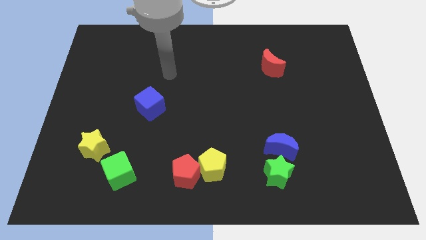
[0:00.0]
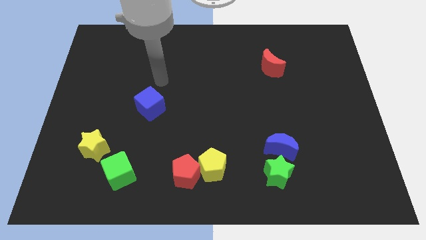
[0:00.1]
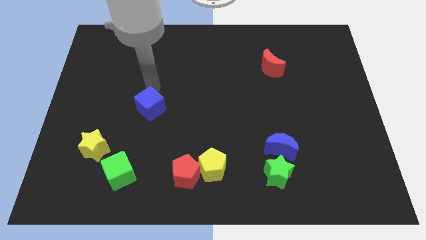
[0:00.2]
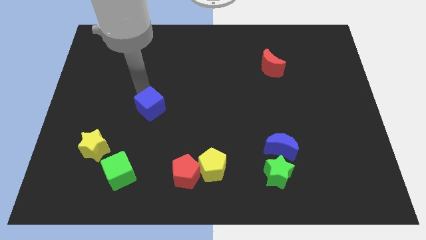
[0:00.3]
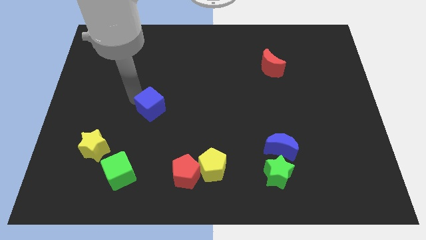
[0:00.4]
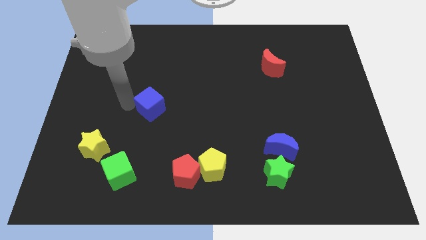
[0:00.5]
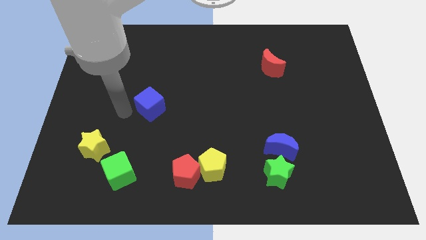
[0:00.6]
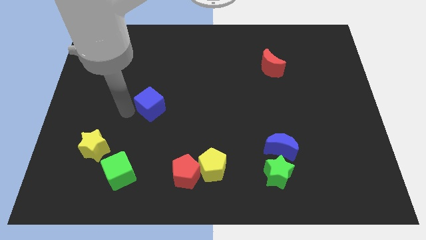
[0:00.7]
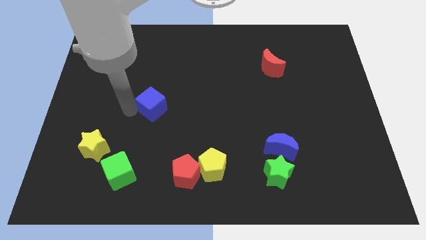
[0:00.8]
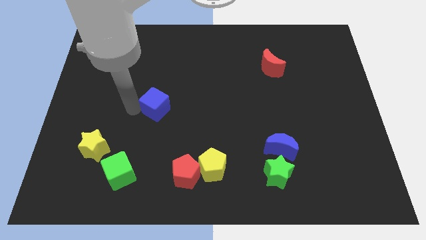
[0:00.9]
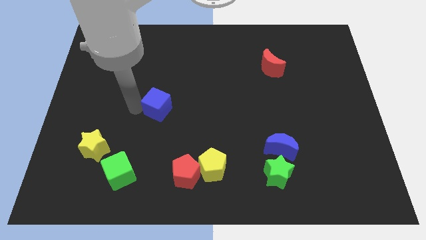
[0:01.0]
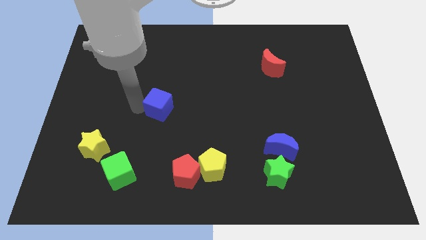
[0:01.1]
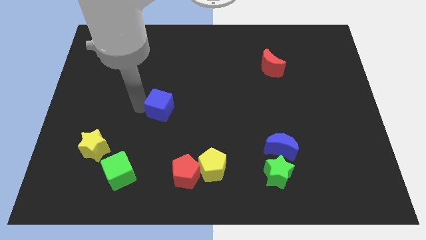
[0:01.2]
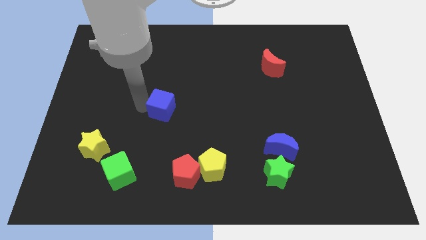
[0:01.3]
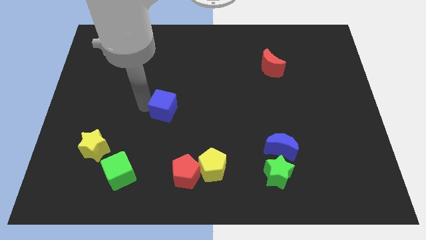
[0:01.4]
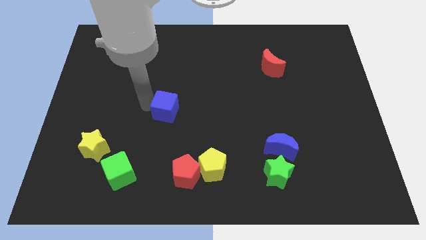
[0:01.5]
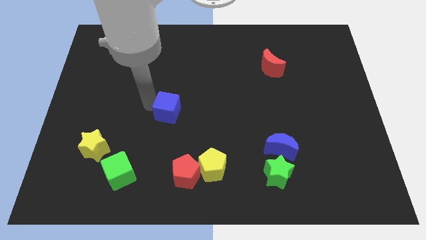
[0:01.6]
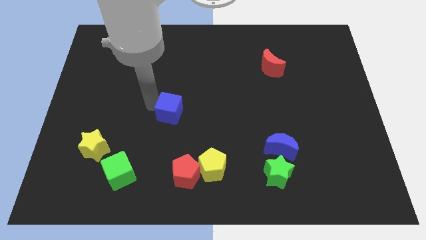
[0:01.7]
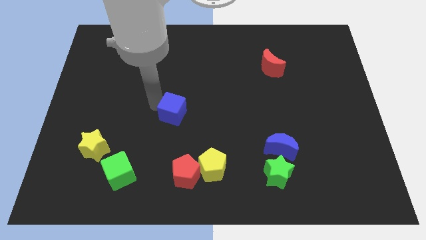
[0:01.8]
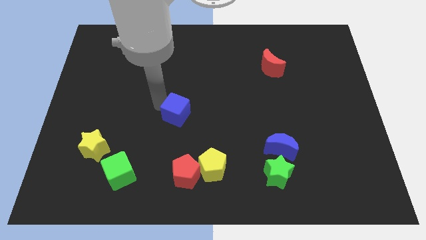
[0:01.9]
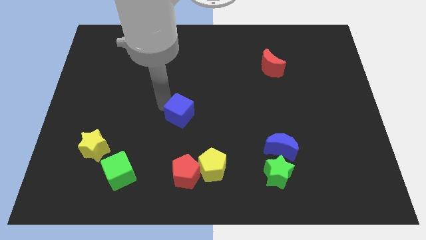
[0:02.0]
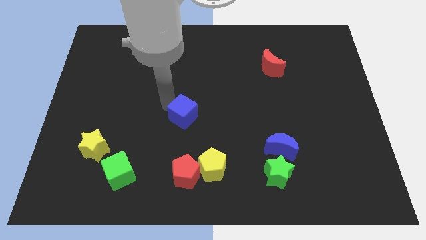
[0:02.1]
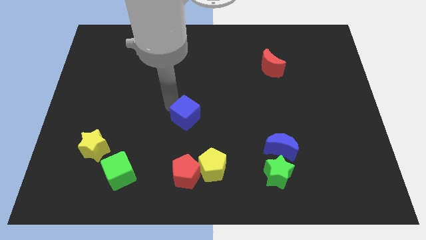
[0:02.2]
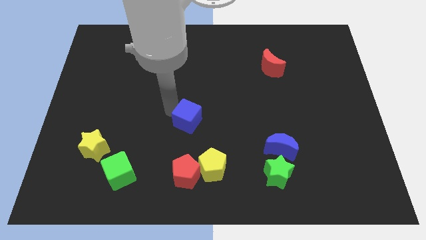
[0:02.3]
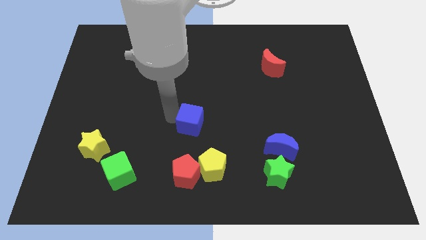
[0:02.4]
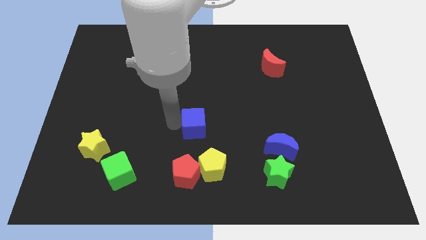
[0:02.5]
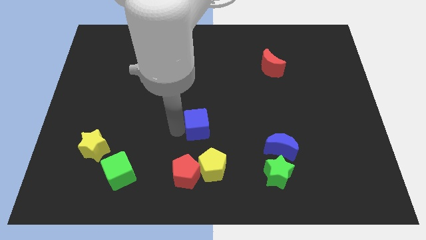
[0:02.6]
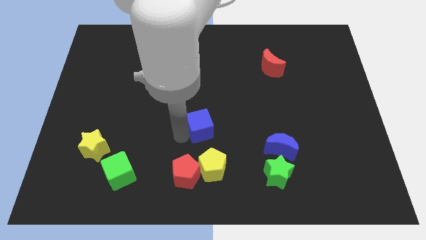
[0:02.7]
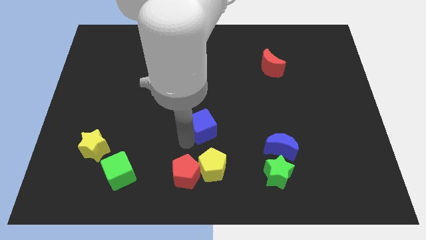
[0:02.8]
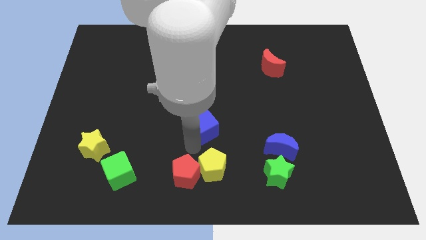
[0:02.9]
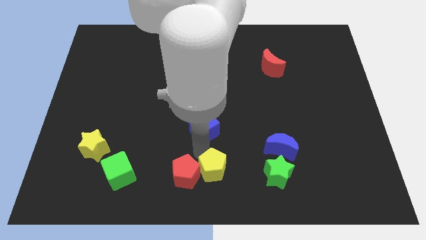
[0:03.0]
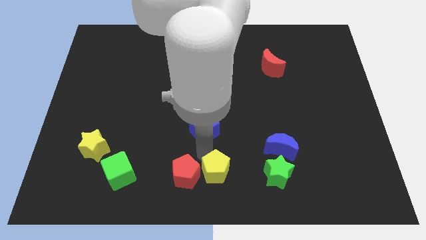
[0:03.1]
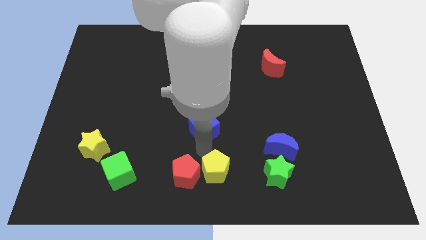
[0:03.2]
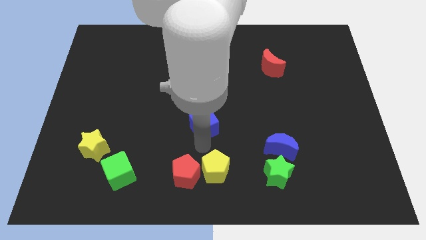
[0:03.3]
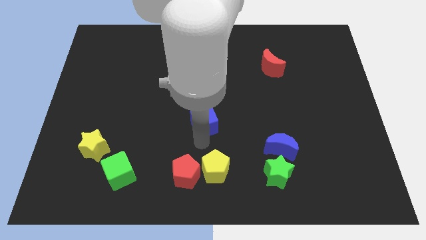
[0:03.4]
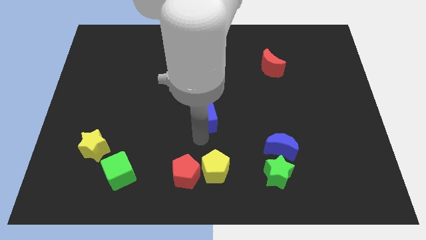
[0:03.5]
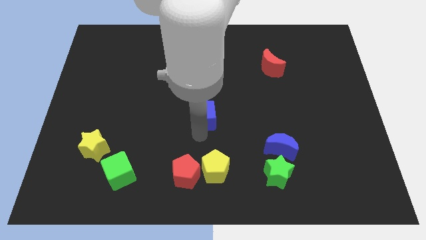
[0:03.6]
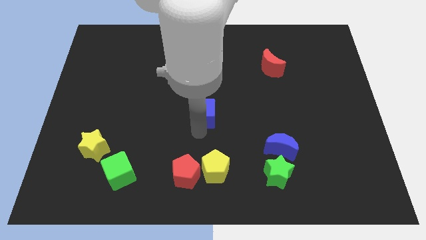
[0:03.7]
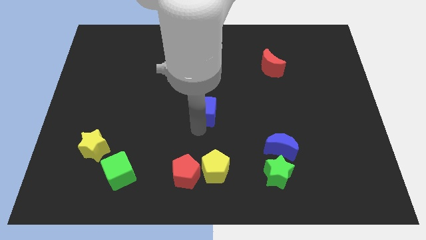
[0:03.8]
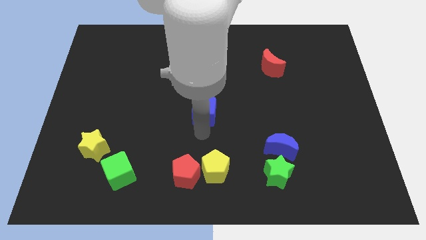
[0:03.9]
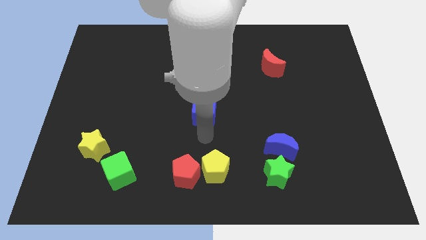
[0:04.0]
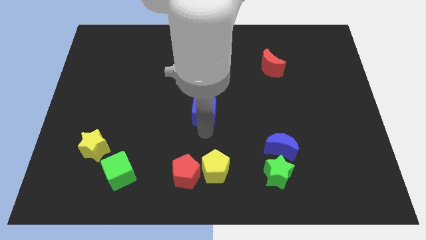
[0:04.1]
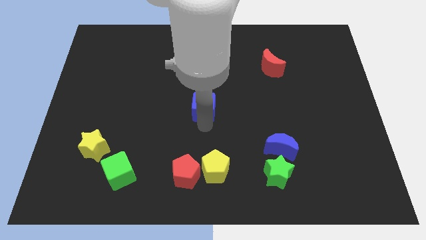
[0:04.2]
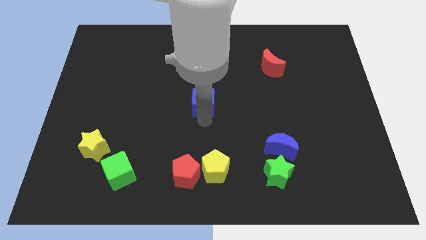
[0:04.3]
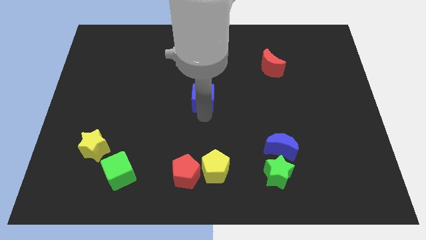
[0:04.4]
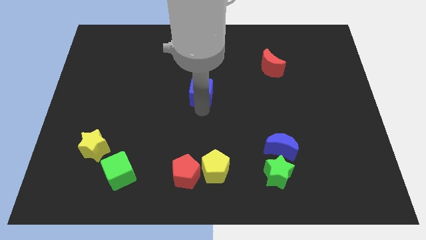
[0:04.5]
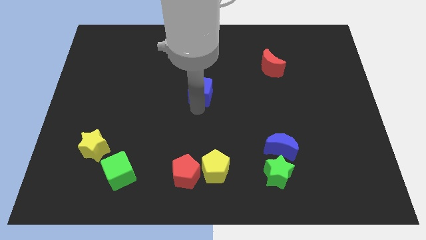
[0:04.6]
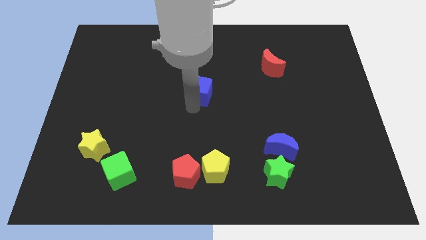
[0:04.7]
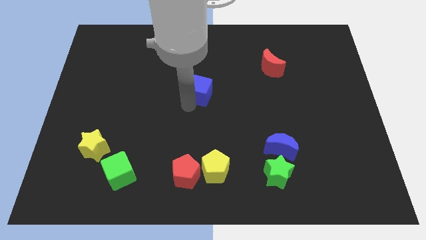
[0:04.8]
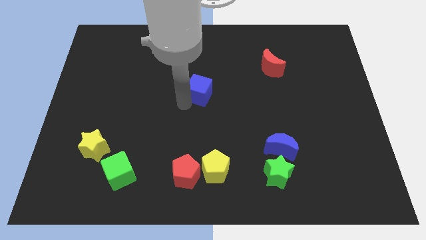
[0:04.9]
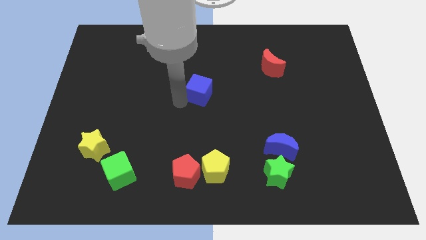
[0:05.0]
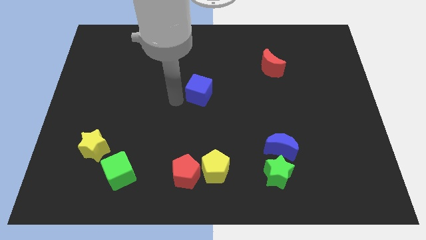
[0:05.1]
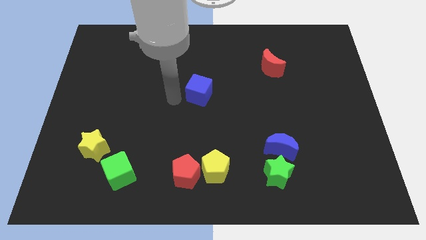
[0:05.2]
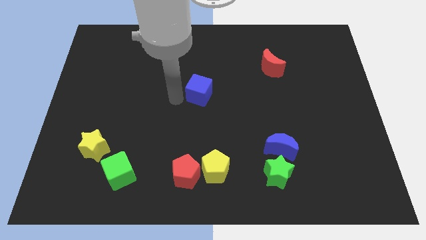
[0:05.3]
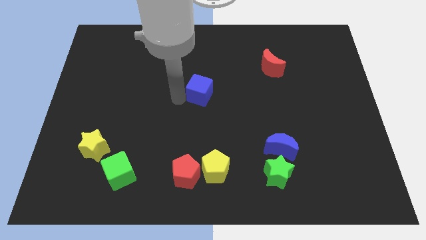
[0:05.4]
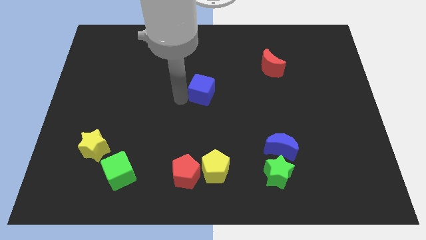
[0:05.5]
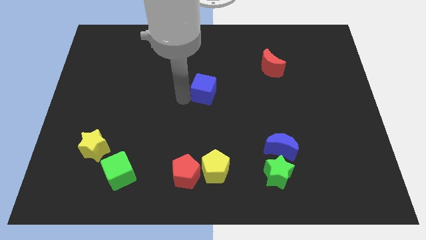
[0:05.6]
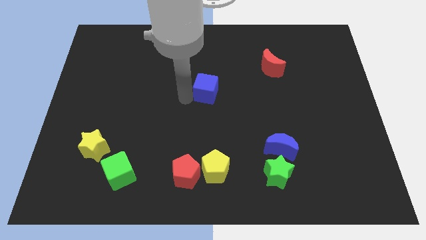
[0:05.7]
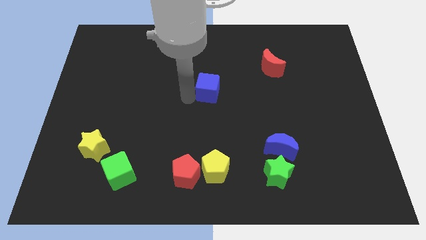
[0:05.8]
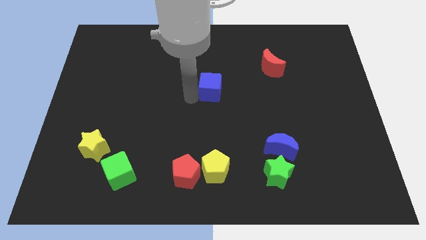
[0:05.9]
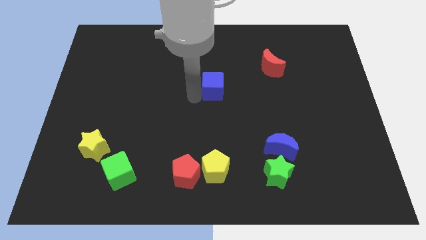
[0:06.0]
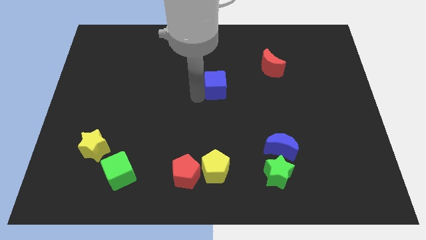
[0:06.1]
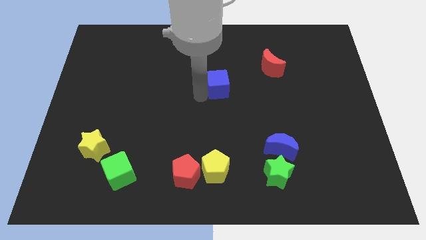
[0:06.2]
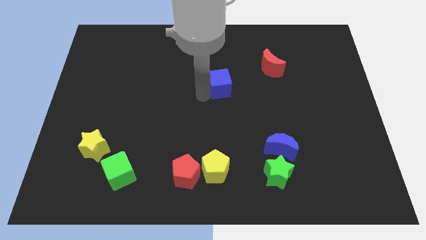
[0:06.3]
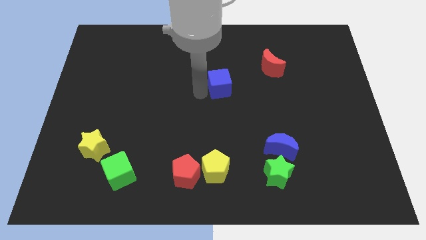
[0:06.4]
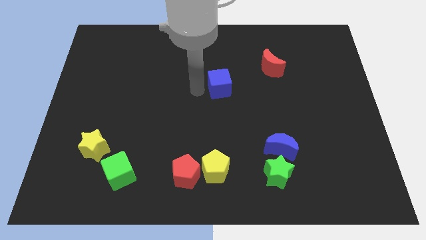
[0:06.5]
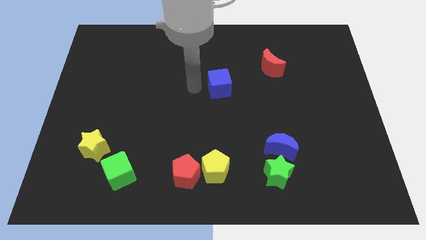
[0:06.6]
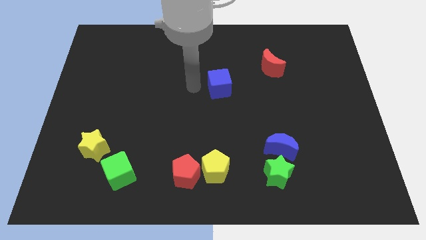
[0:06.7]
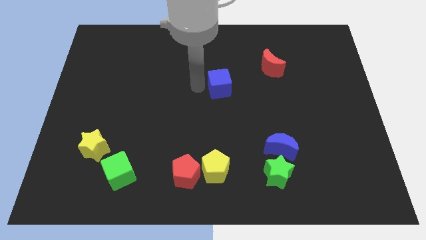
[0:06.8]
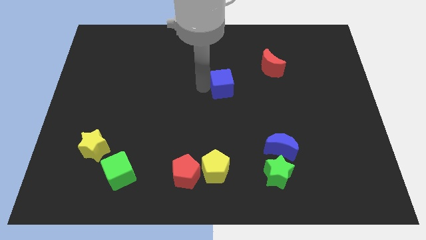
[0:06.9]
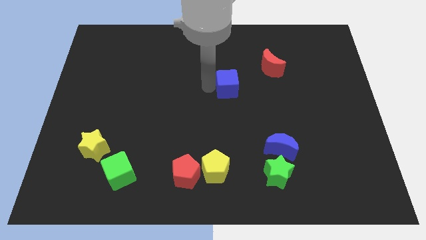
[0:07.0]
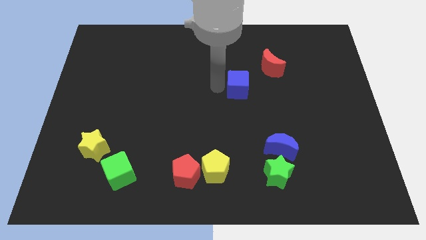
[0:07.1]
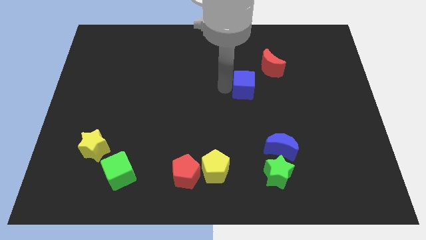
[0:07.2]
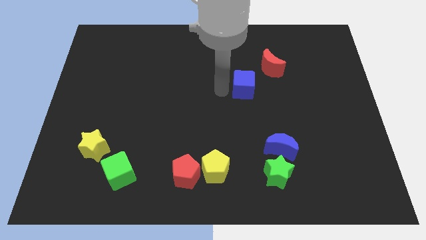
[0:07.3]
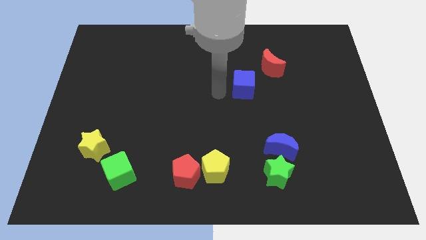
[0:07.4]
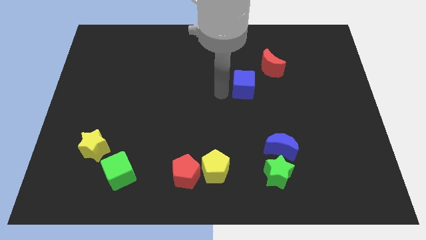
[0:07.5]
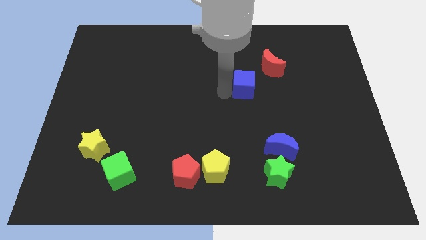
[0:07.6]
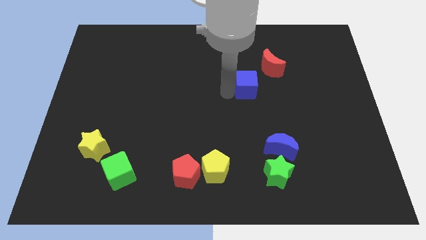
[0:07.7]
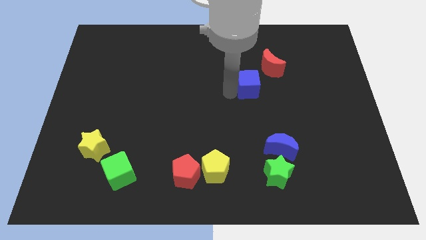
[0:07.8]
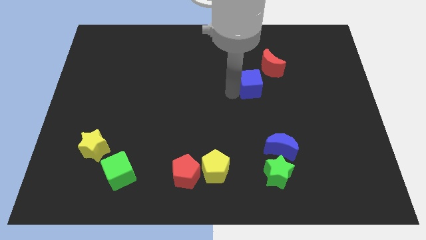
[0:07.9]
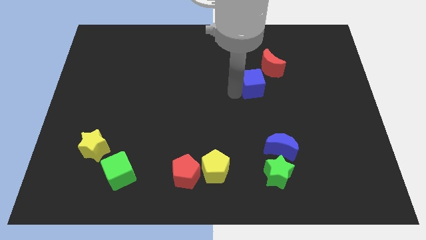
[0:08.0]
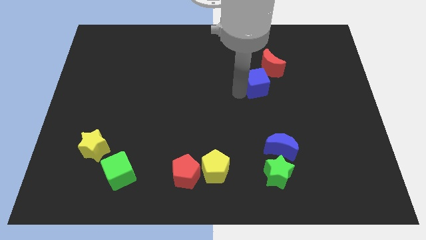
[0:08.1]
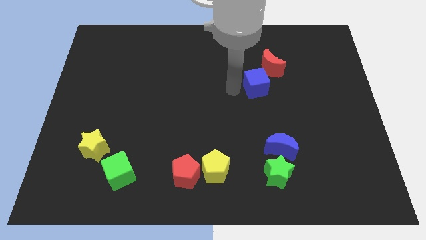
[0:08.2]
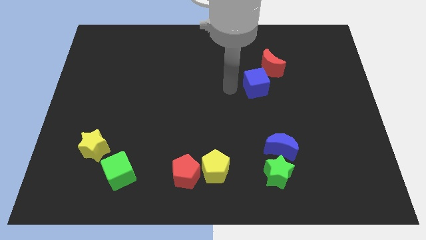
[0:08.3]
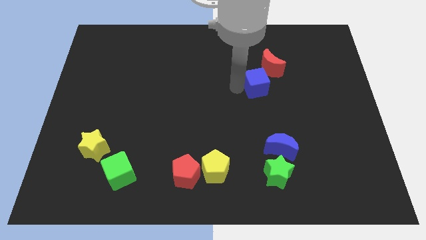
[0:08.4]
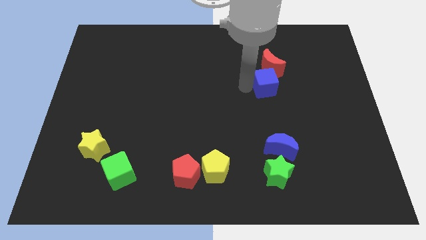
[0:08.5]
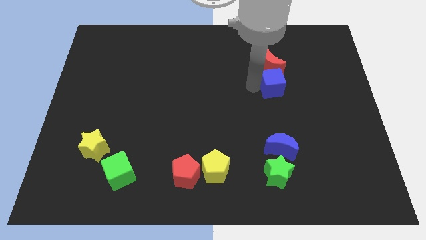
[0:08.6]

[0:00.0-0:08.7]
move the blue cube diagonally down and to the right of the red moon
